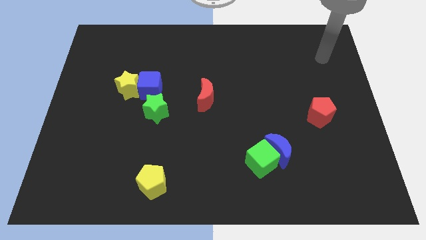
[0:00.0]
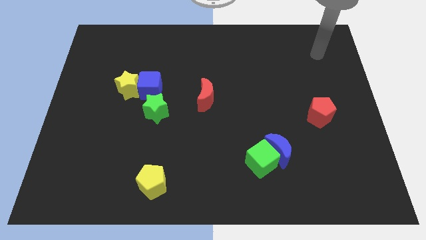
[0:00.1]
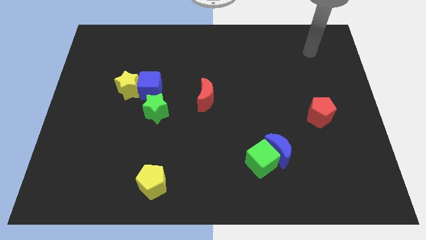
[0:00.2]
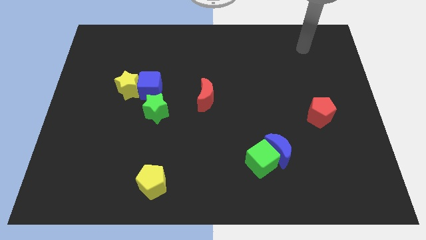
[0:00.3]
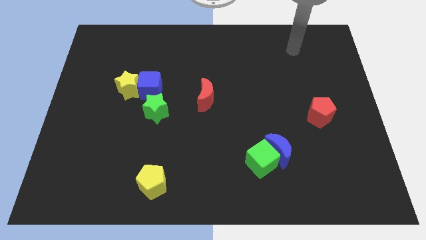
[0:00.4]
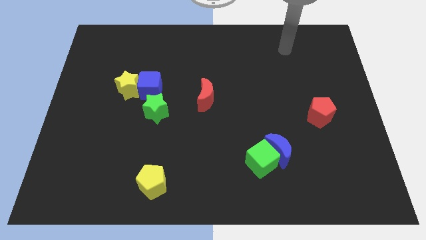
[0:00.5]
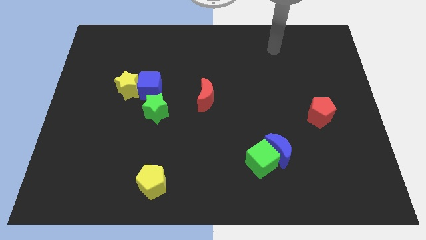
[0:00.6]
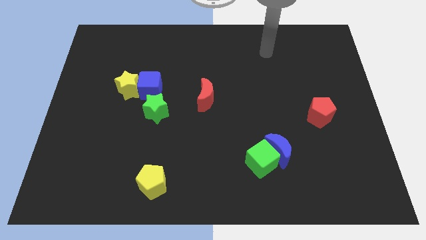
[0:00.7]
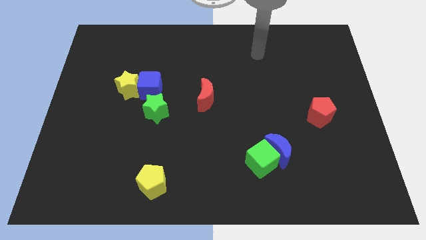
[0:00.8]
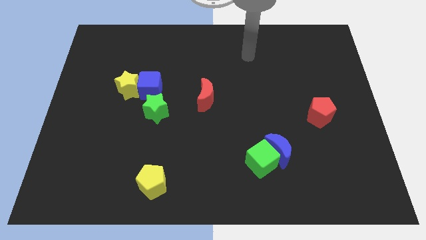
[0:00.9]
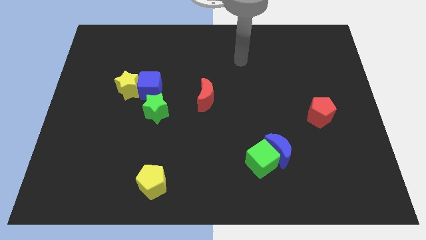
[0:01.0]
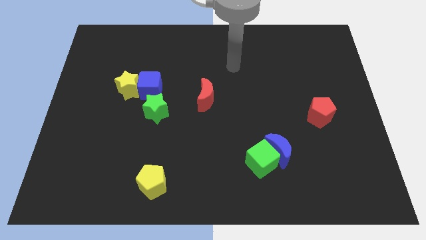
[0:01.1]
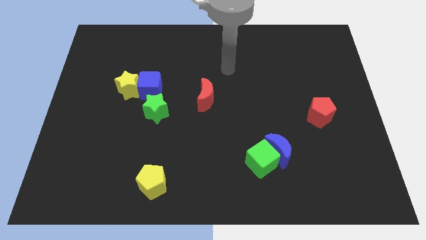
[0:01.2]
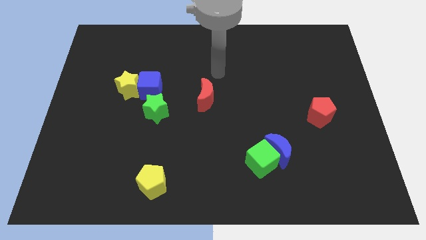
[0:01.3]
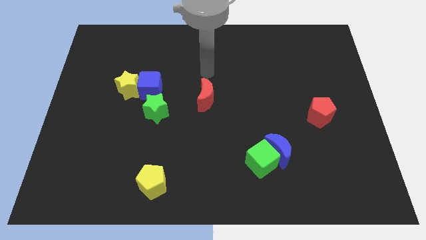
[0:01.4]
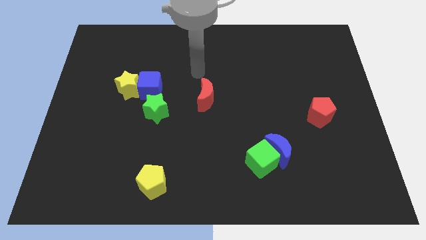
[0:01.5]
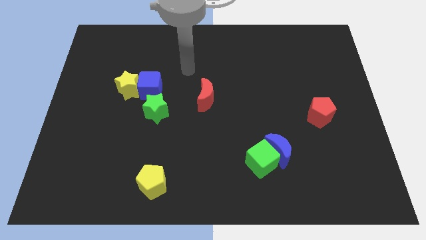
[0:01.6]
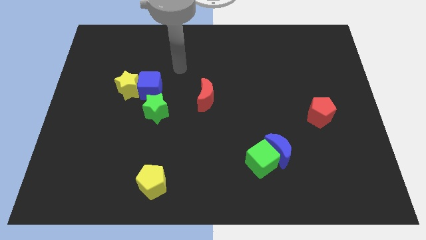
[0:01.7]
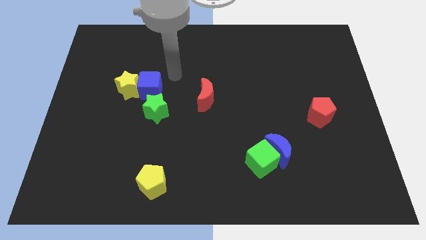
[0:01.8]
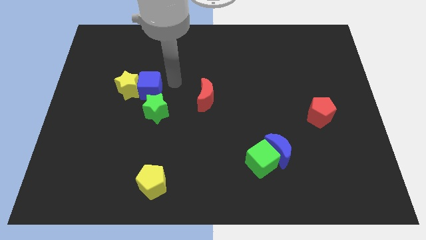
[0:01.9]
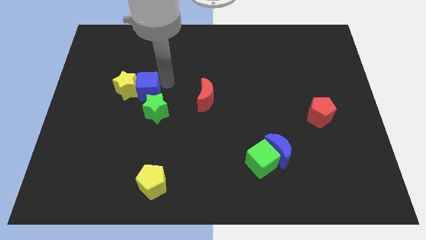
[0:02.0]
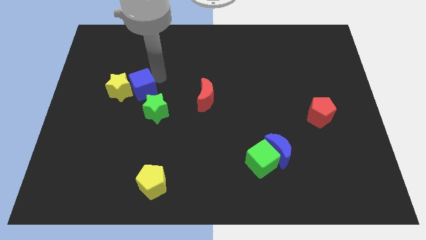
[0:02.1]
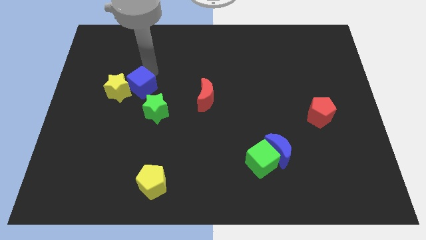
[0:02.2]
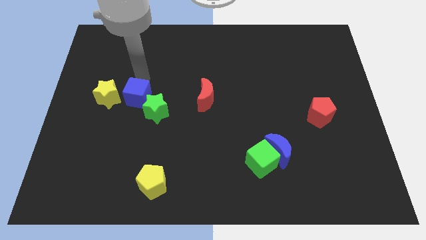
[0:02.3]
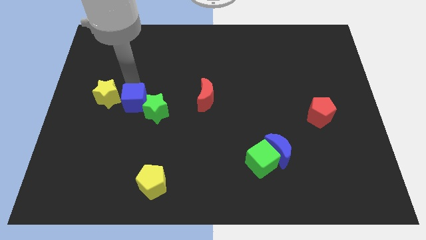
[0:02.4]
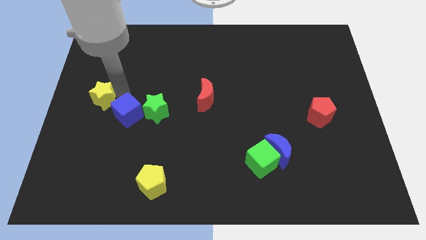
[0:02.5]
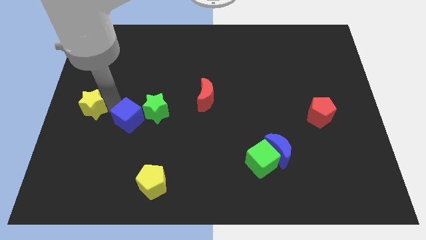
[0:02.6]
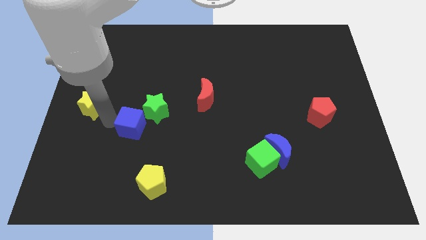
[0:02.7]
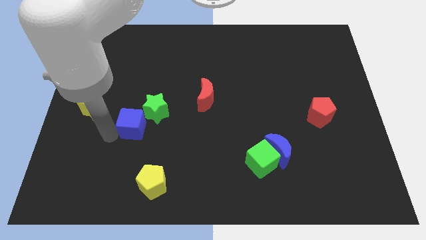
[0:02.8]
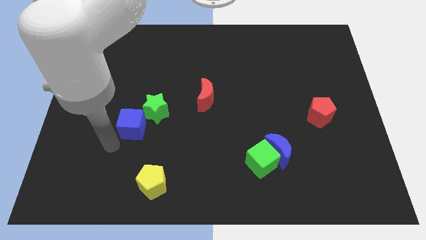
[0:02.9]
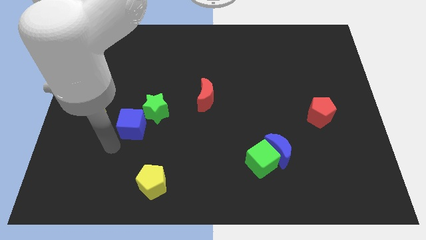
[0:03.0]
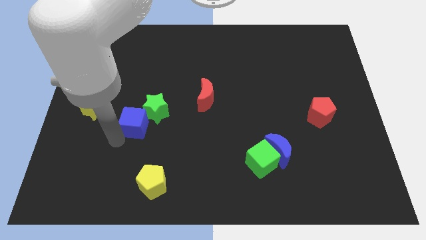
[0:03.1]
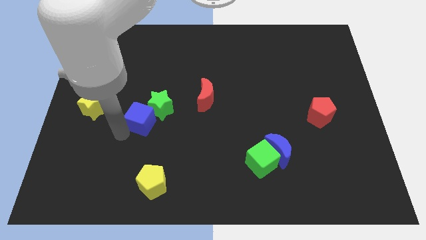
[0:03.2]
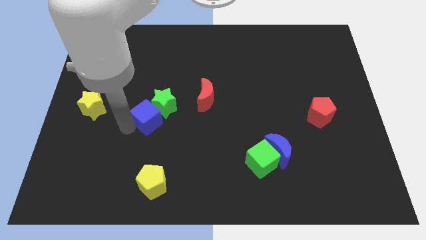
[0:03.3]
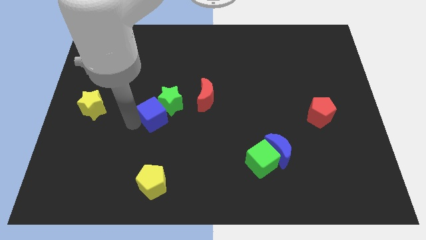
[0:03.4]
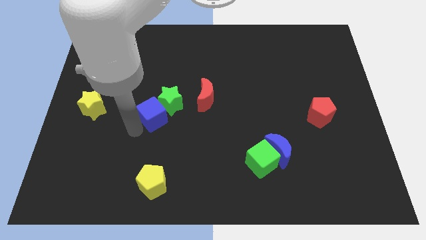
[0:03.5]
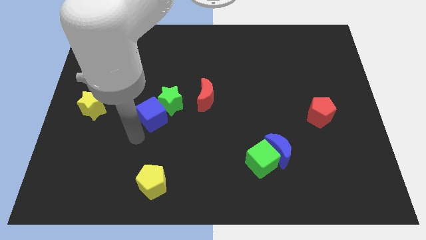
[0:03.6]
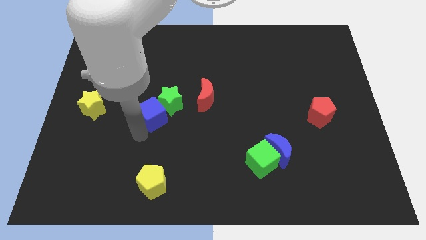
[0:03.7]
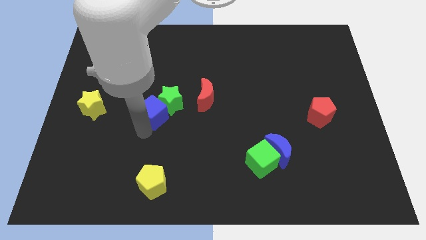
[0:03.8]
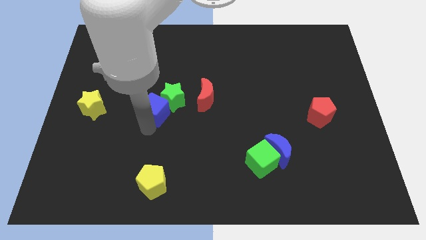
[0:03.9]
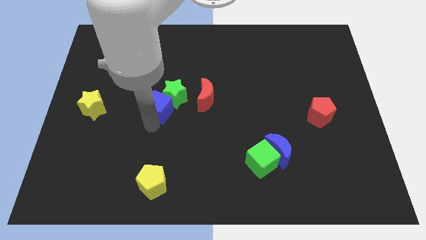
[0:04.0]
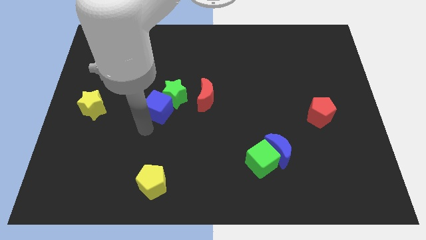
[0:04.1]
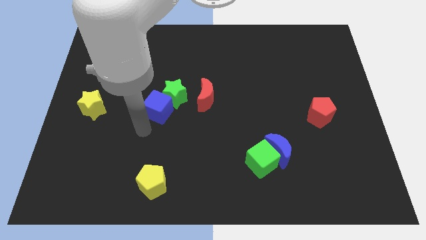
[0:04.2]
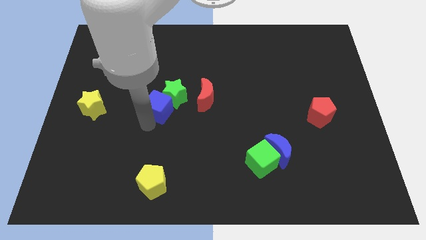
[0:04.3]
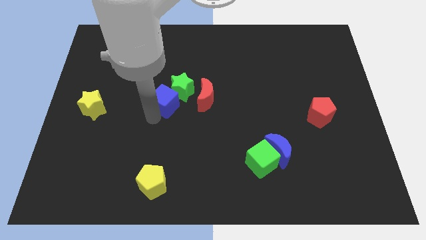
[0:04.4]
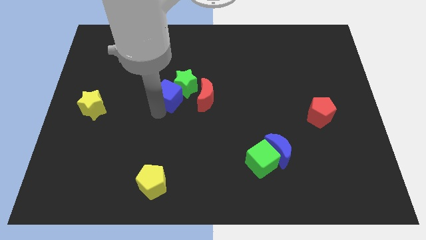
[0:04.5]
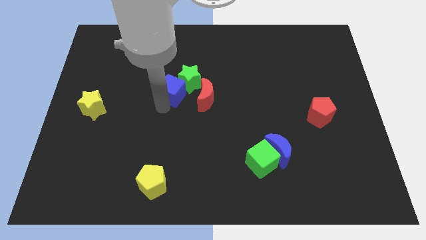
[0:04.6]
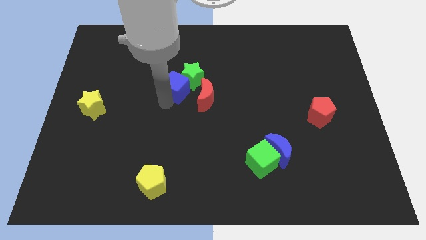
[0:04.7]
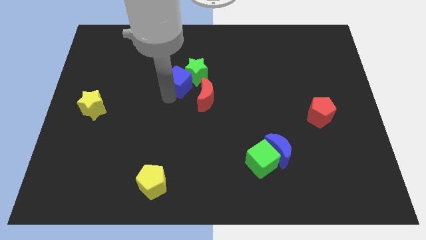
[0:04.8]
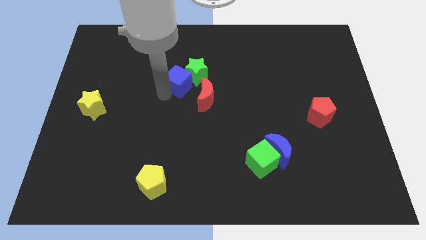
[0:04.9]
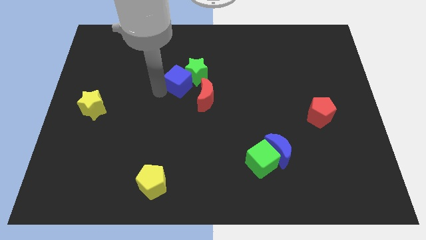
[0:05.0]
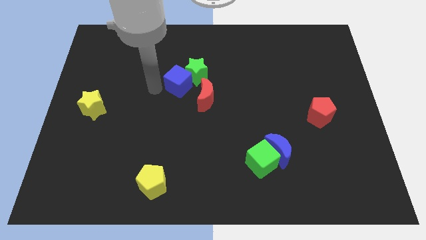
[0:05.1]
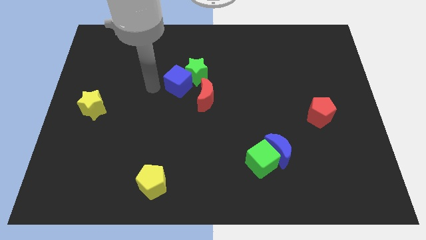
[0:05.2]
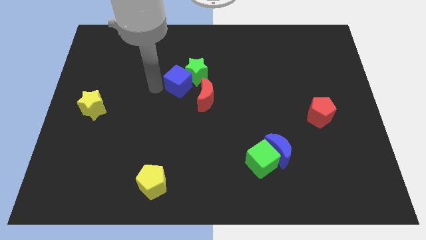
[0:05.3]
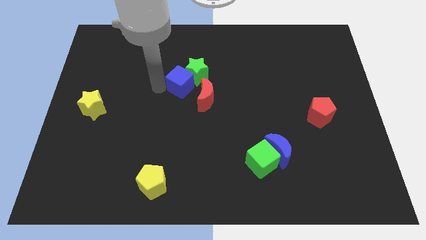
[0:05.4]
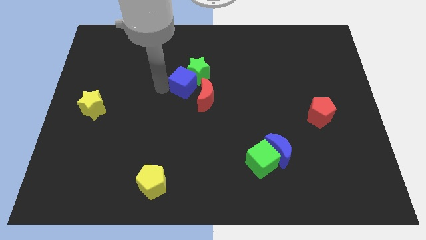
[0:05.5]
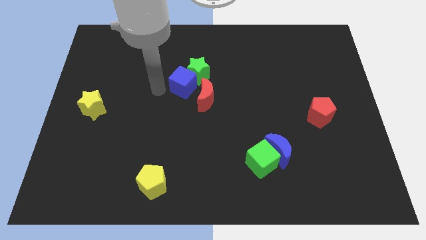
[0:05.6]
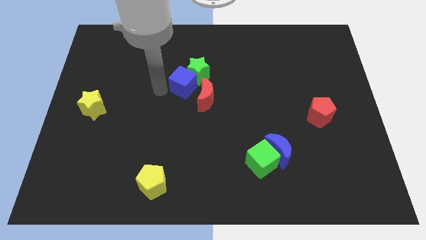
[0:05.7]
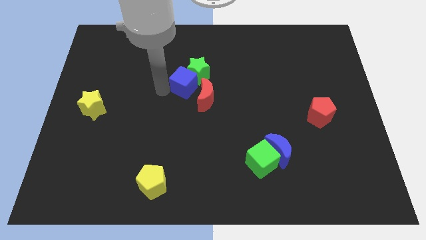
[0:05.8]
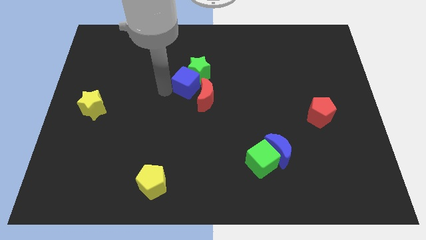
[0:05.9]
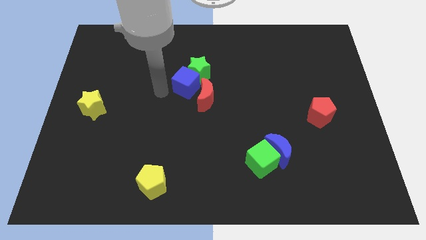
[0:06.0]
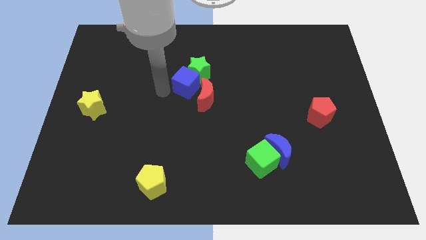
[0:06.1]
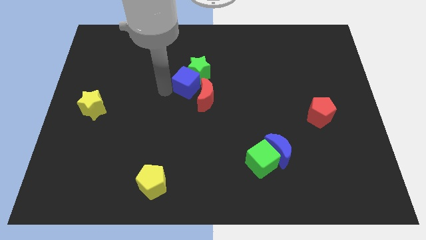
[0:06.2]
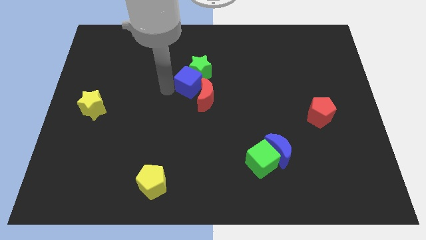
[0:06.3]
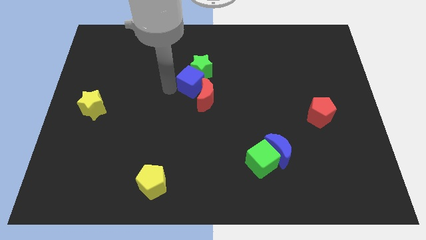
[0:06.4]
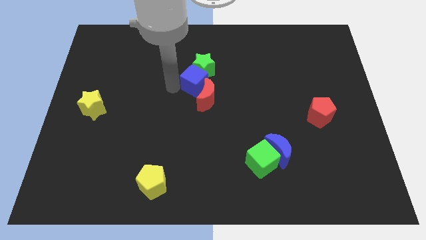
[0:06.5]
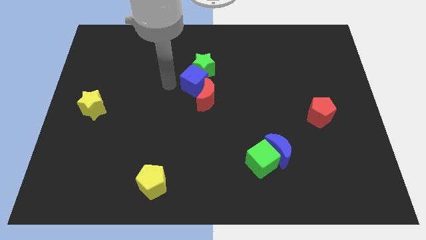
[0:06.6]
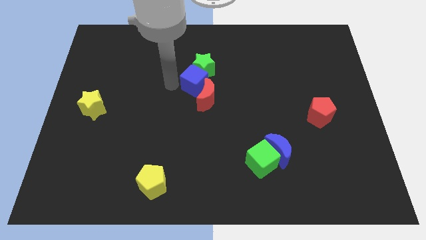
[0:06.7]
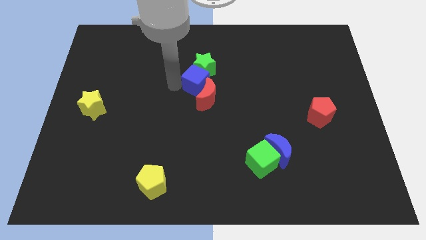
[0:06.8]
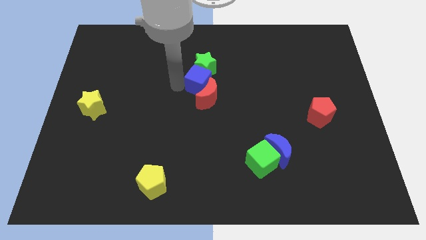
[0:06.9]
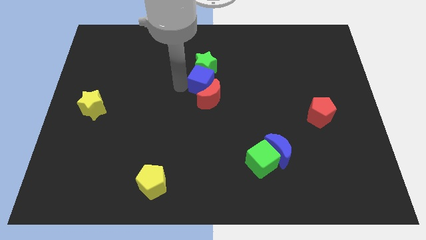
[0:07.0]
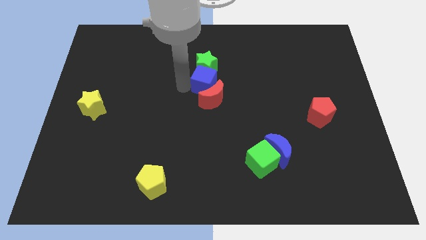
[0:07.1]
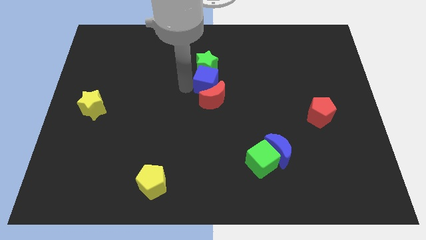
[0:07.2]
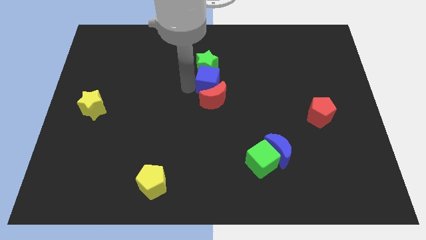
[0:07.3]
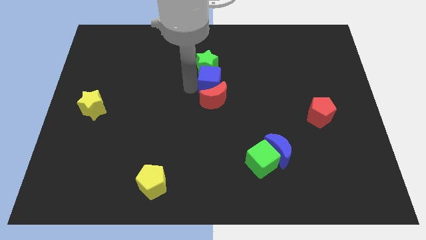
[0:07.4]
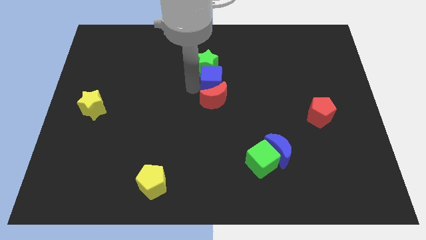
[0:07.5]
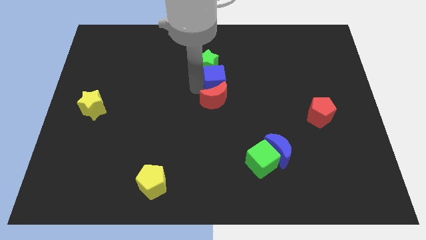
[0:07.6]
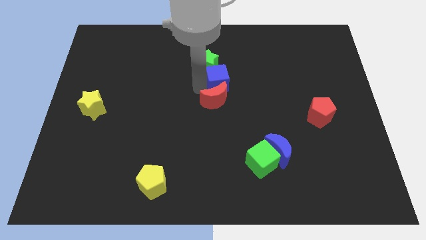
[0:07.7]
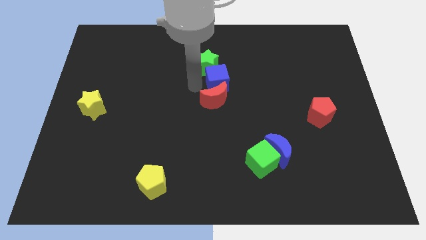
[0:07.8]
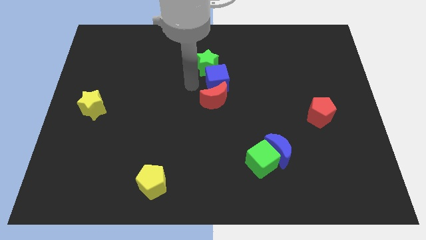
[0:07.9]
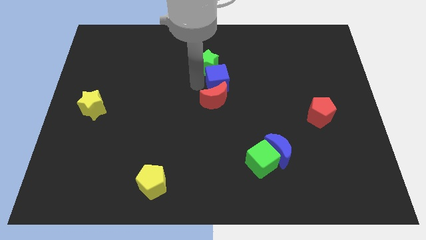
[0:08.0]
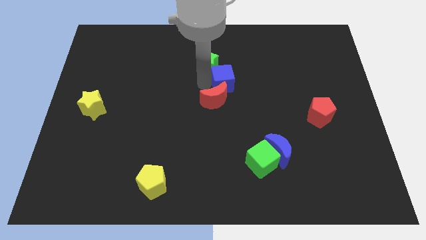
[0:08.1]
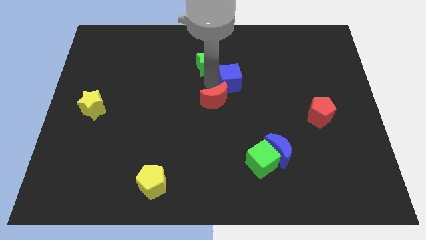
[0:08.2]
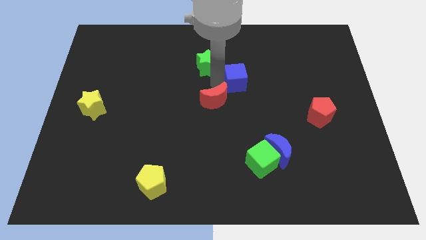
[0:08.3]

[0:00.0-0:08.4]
push the blue cube right
